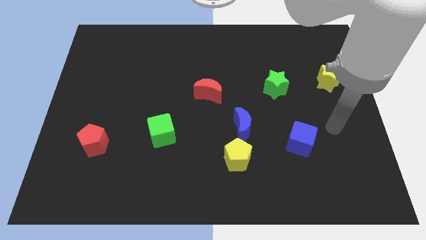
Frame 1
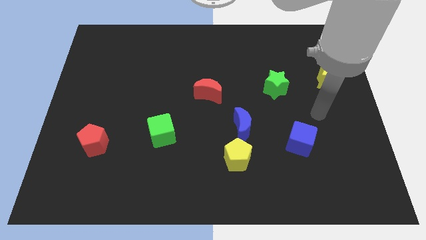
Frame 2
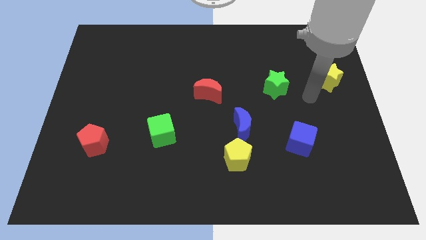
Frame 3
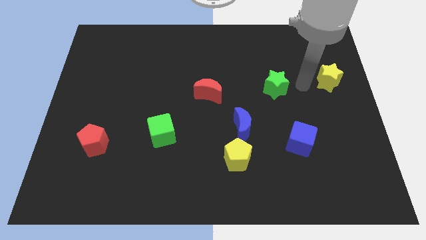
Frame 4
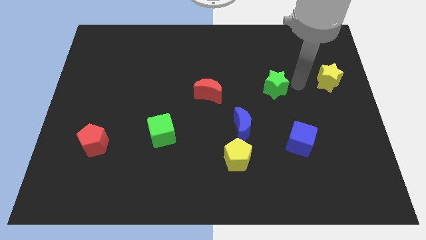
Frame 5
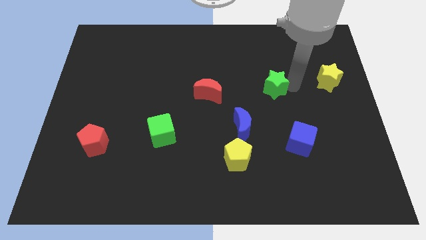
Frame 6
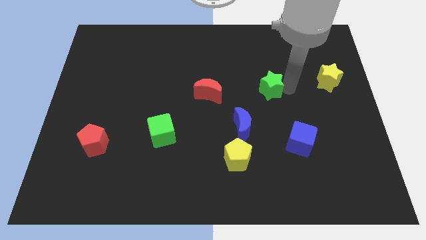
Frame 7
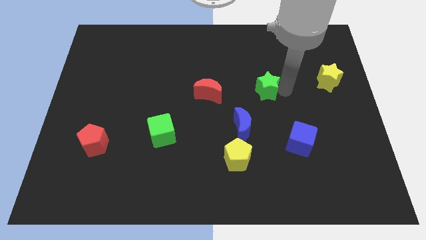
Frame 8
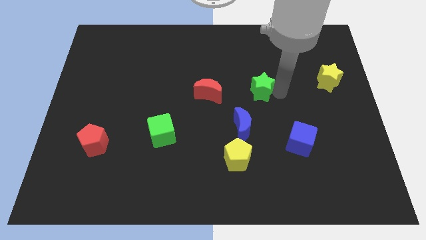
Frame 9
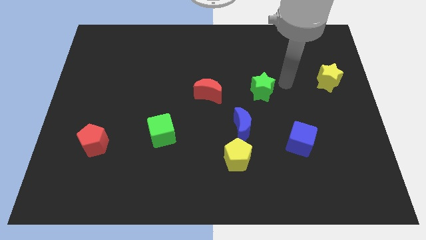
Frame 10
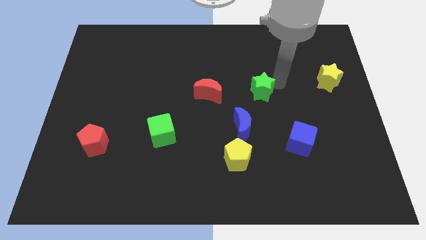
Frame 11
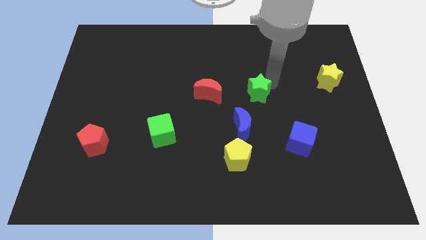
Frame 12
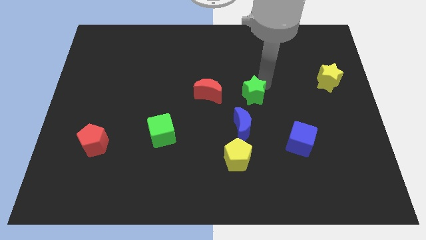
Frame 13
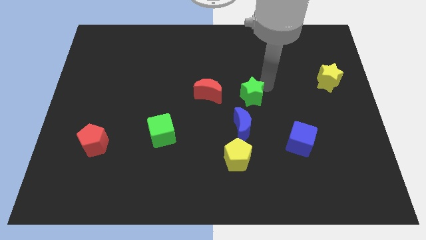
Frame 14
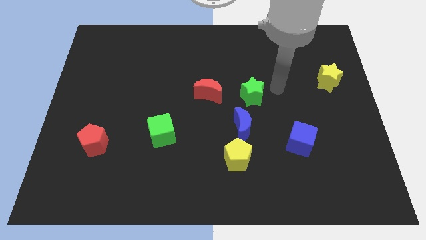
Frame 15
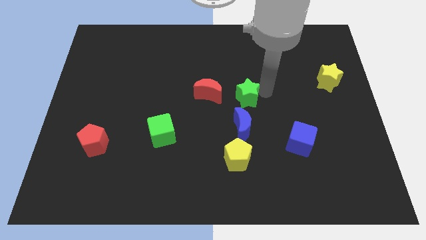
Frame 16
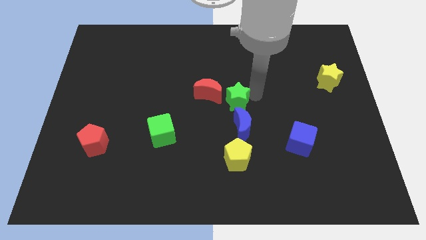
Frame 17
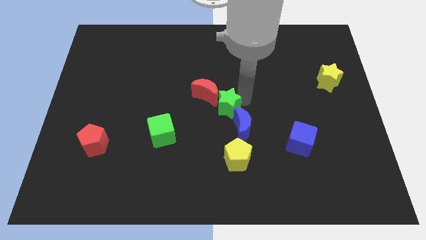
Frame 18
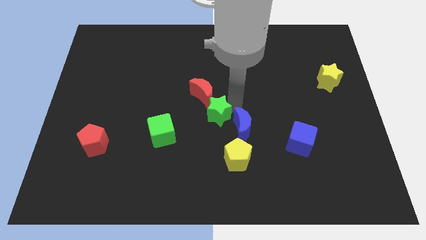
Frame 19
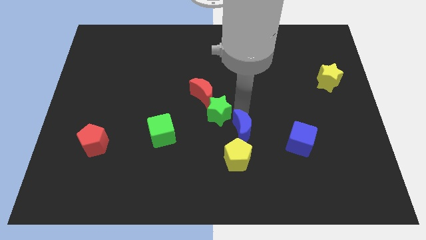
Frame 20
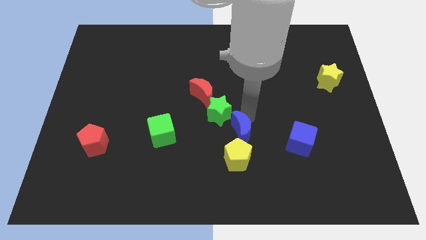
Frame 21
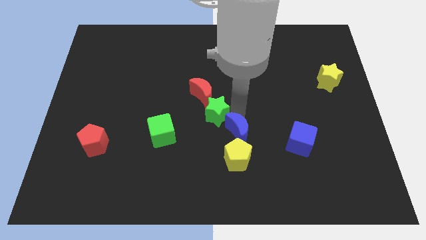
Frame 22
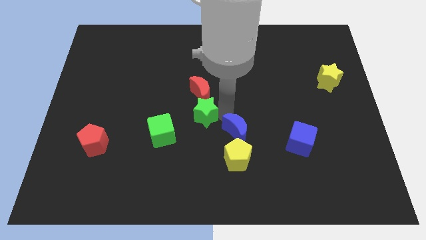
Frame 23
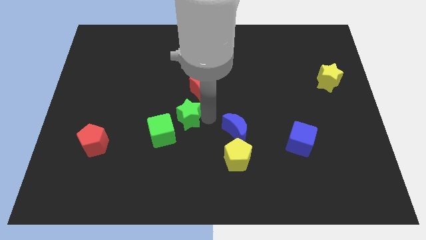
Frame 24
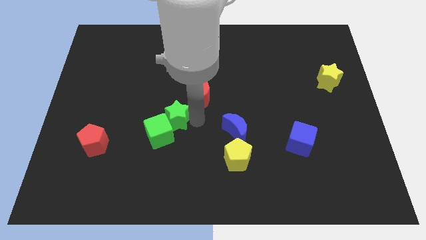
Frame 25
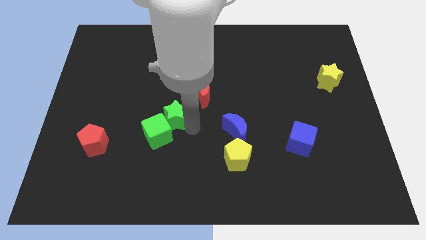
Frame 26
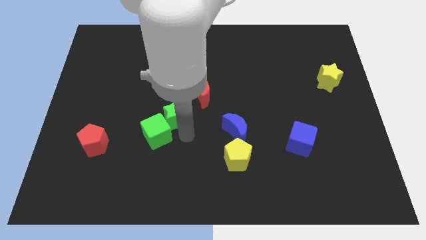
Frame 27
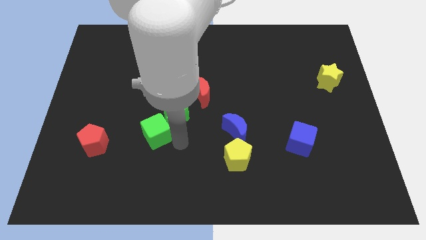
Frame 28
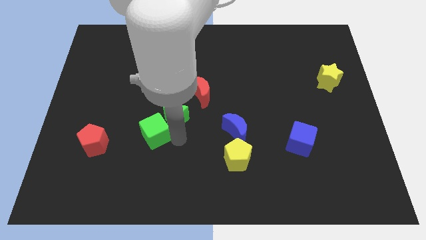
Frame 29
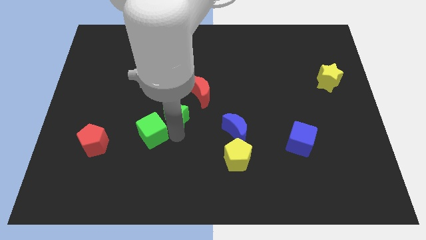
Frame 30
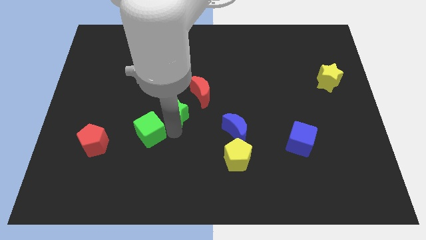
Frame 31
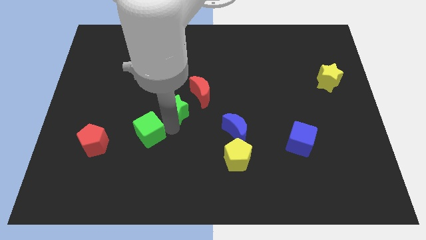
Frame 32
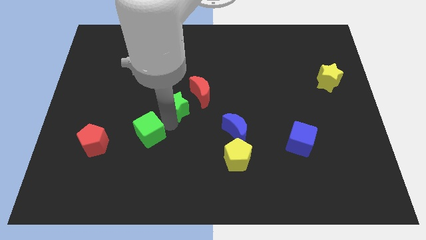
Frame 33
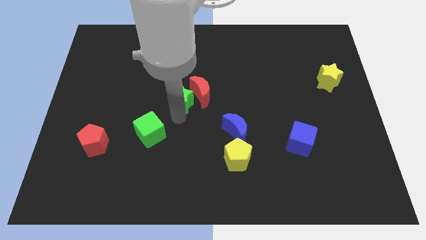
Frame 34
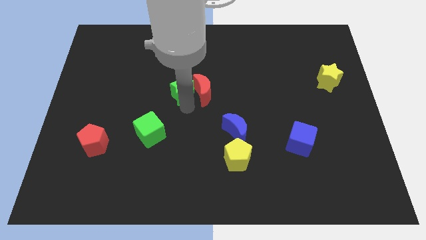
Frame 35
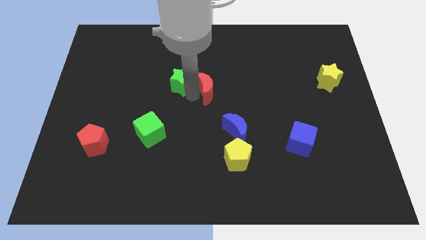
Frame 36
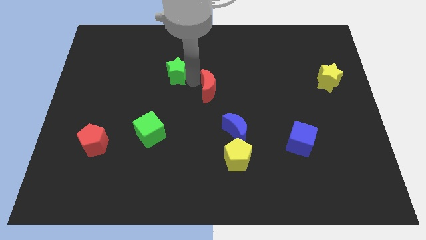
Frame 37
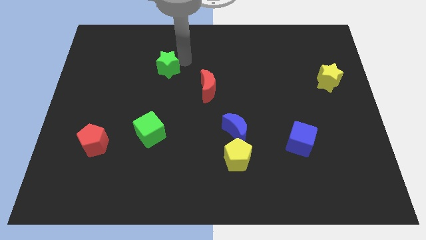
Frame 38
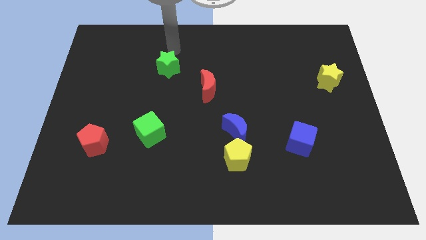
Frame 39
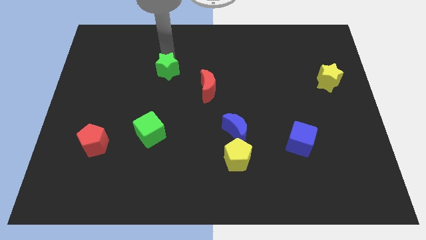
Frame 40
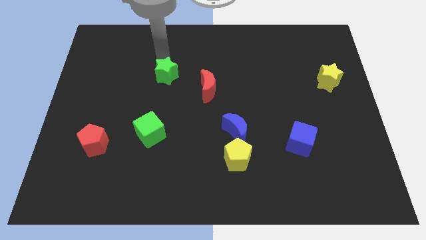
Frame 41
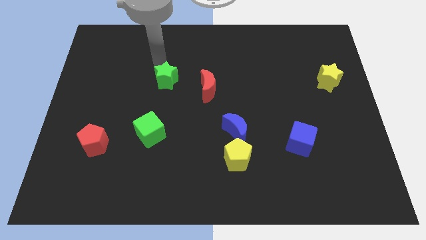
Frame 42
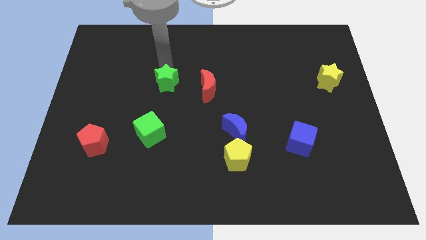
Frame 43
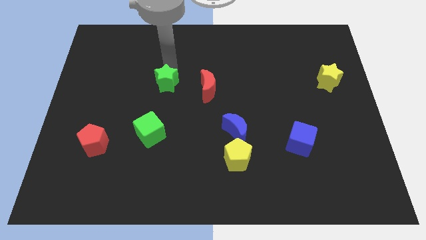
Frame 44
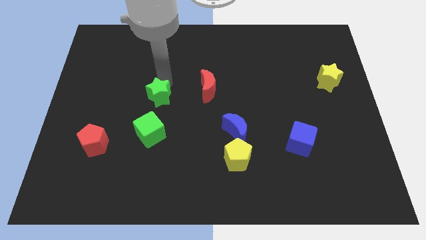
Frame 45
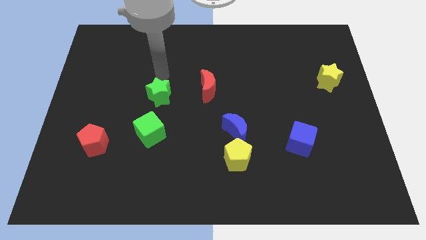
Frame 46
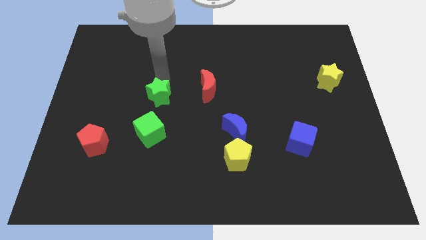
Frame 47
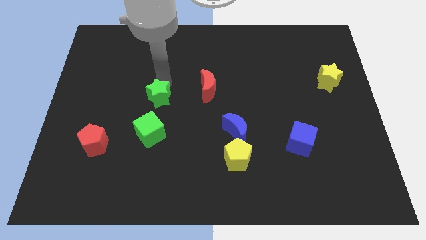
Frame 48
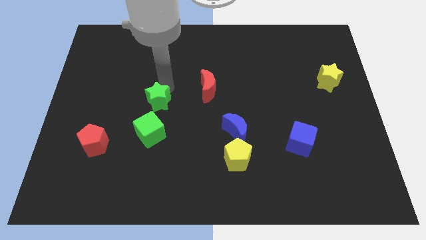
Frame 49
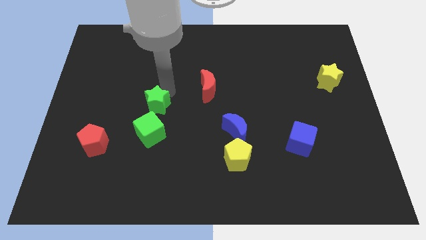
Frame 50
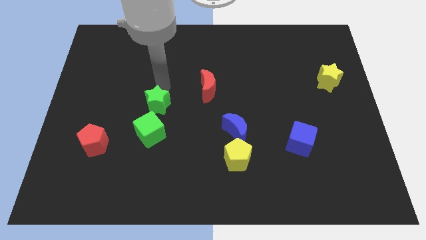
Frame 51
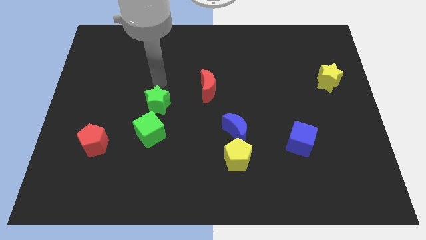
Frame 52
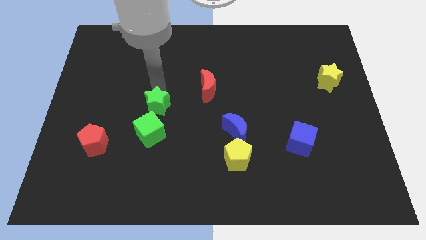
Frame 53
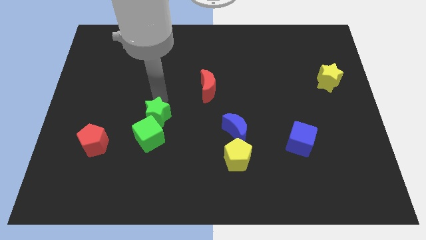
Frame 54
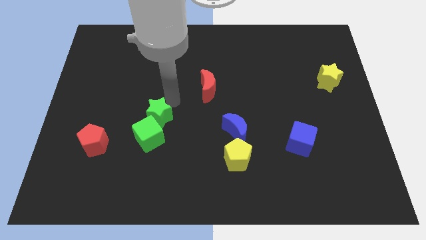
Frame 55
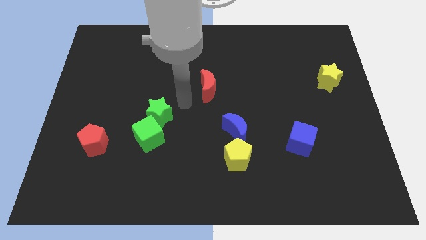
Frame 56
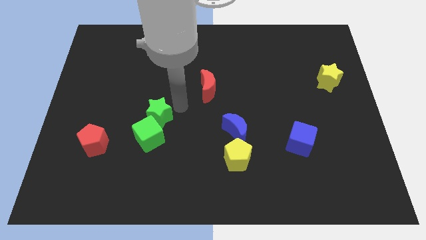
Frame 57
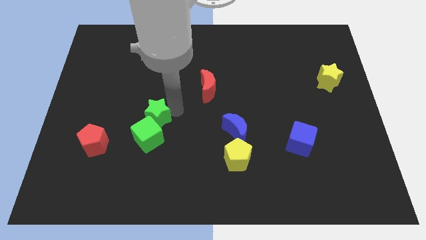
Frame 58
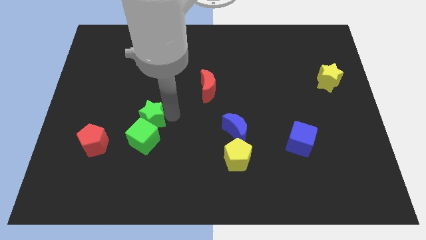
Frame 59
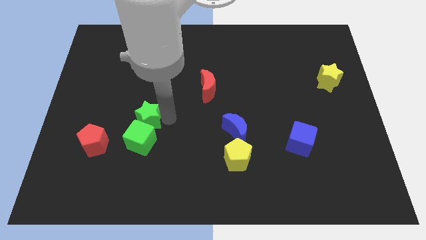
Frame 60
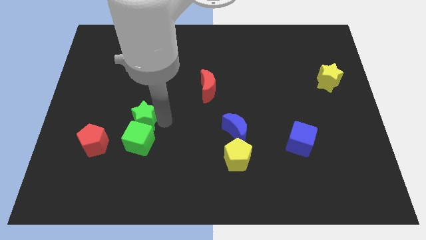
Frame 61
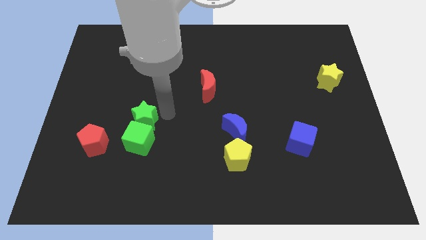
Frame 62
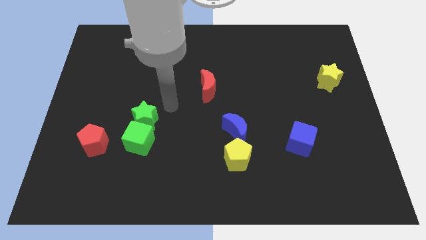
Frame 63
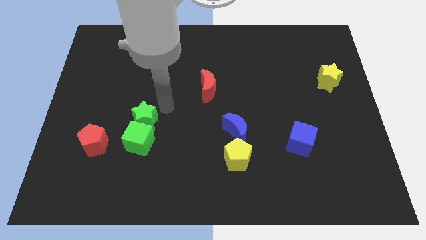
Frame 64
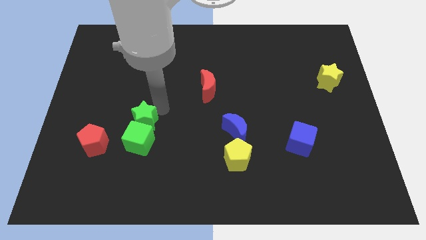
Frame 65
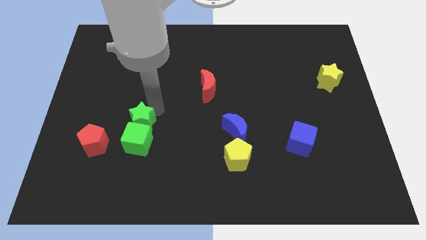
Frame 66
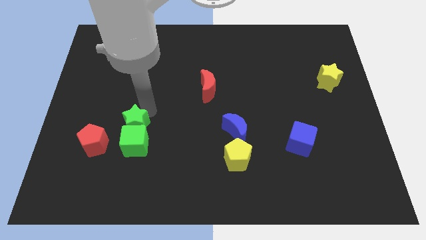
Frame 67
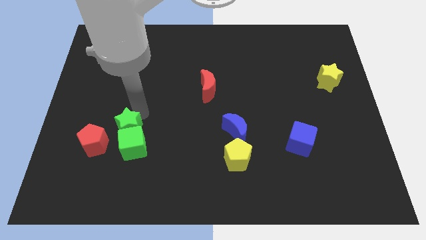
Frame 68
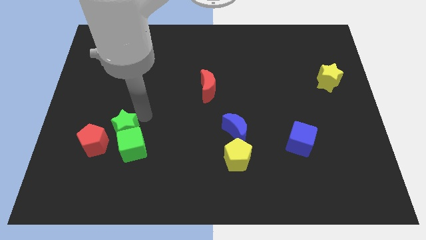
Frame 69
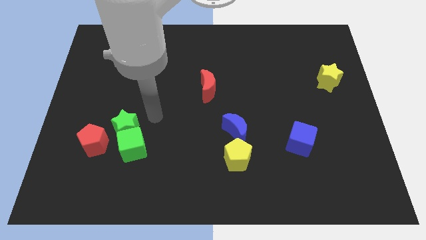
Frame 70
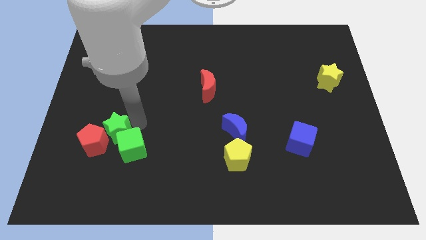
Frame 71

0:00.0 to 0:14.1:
move the green star towards the red pentagon
